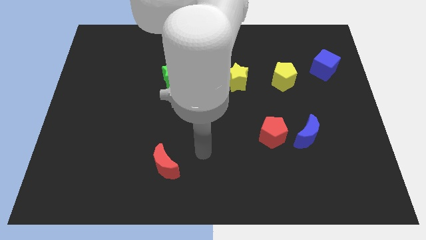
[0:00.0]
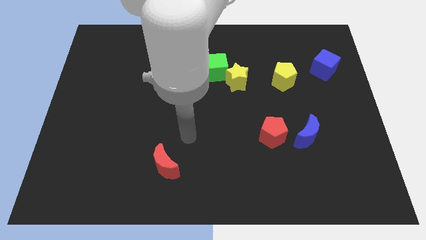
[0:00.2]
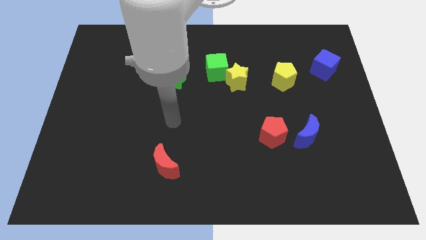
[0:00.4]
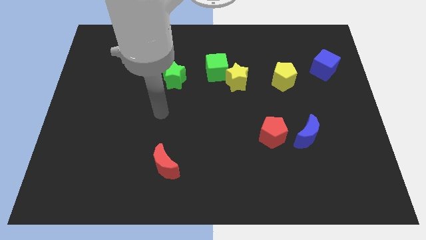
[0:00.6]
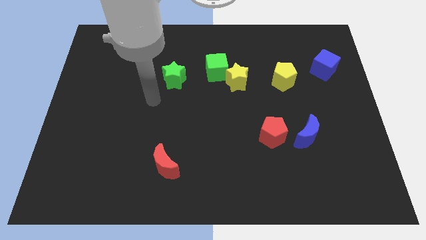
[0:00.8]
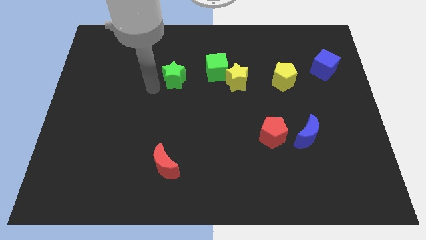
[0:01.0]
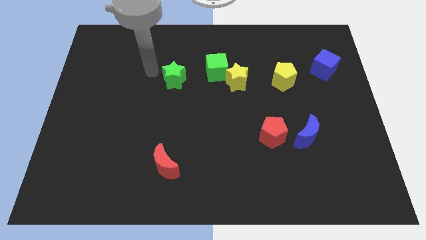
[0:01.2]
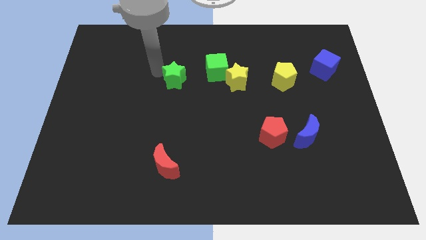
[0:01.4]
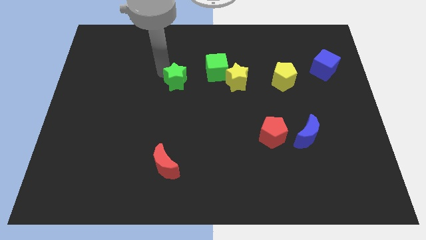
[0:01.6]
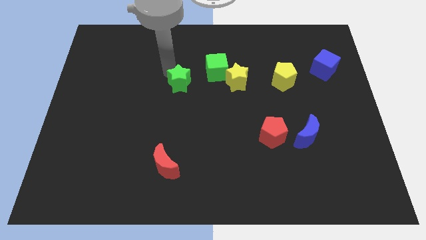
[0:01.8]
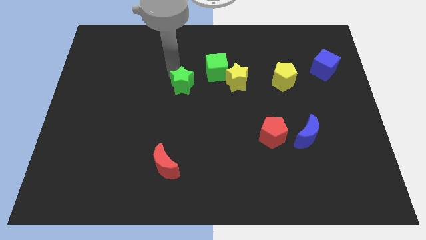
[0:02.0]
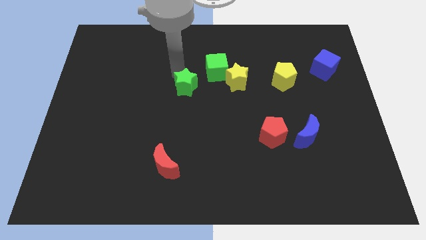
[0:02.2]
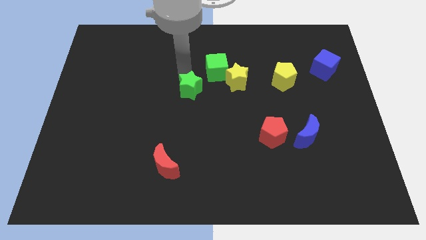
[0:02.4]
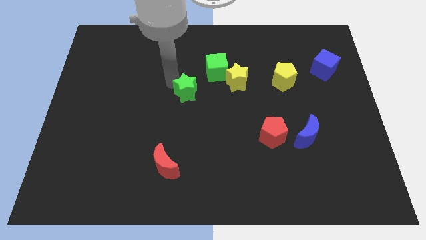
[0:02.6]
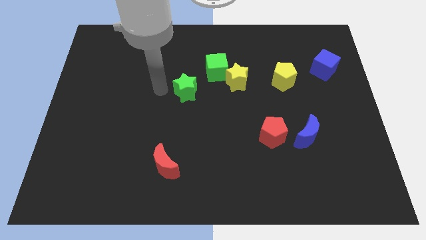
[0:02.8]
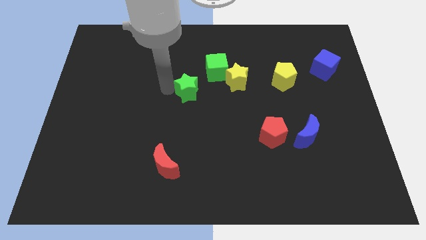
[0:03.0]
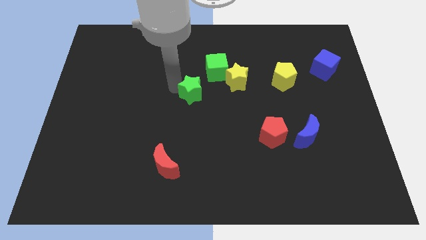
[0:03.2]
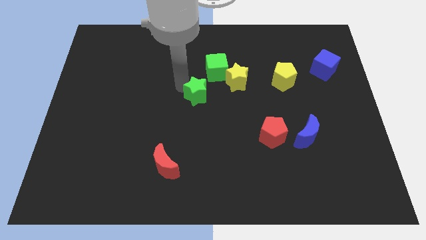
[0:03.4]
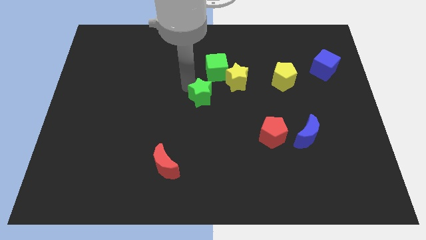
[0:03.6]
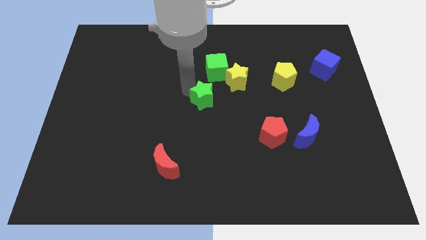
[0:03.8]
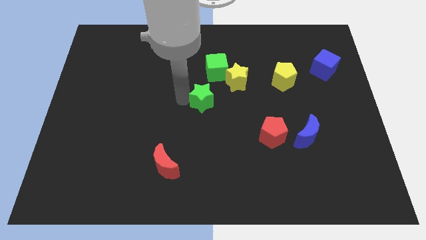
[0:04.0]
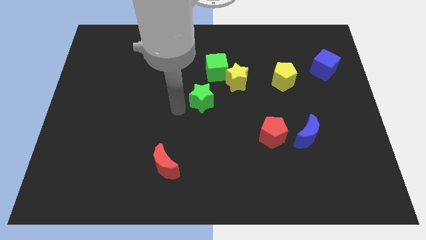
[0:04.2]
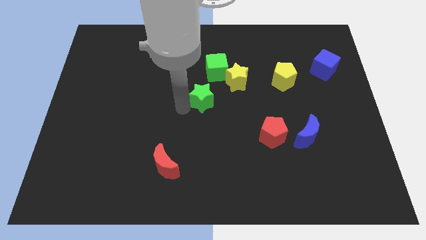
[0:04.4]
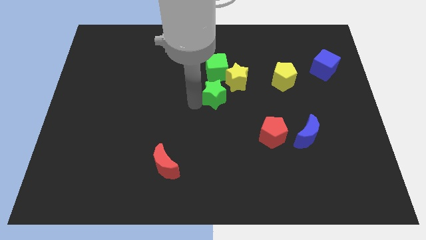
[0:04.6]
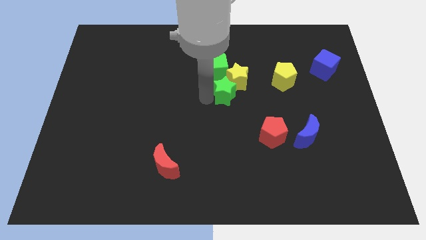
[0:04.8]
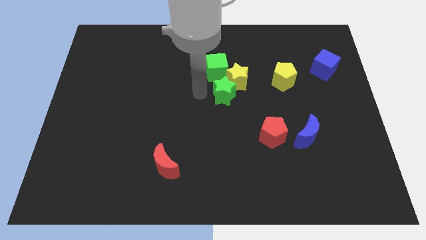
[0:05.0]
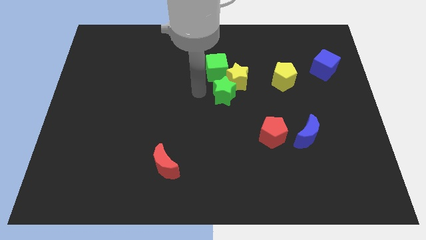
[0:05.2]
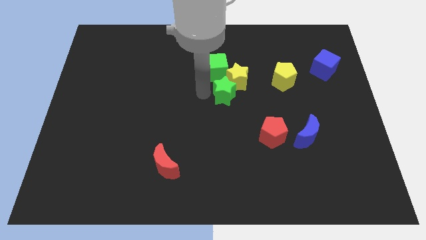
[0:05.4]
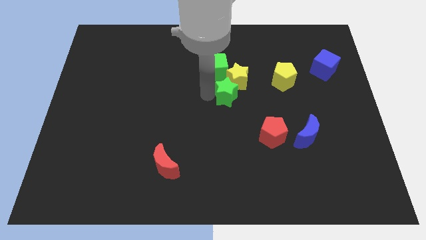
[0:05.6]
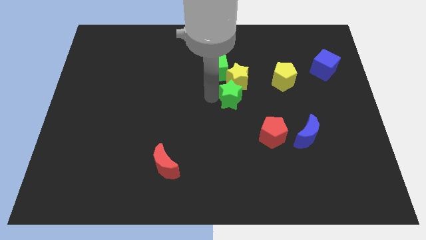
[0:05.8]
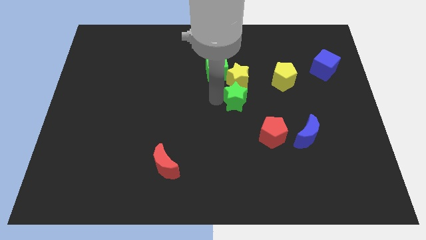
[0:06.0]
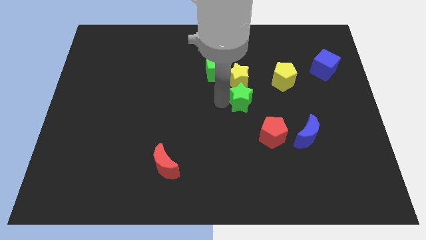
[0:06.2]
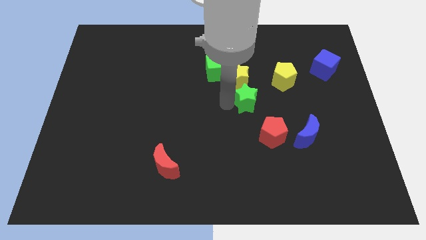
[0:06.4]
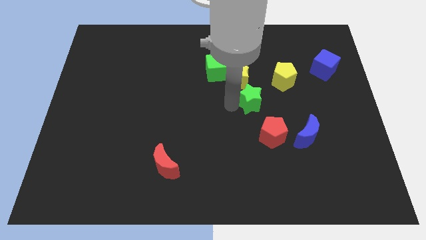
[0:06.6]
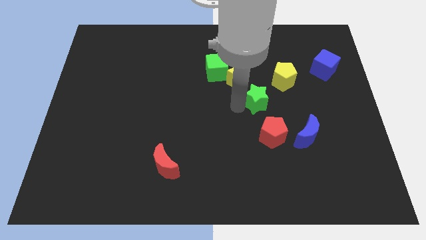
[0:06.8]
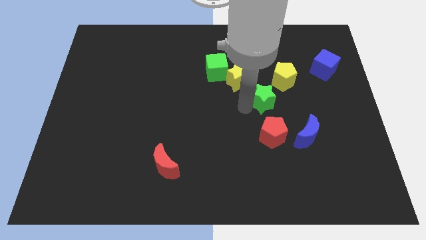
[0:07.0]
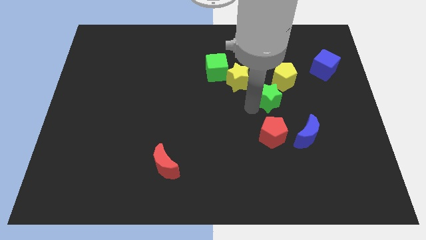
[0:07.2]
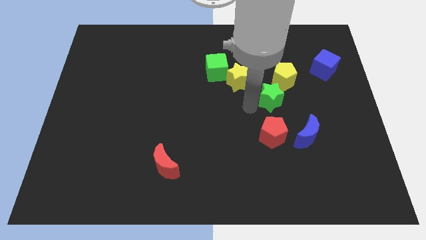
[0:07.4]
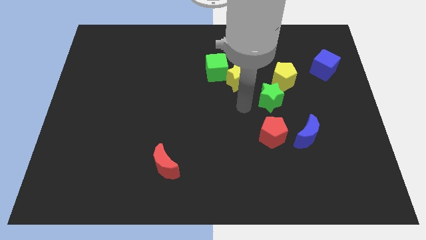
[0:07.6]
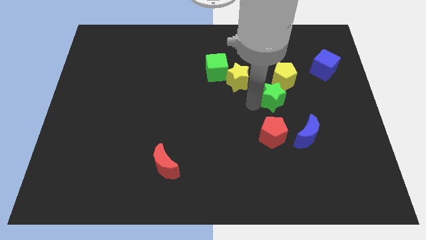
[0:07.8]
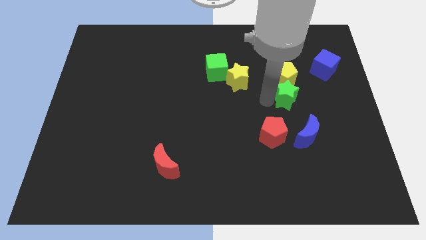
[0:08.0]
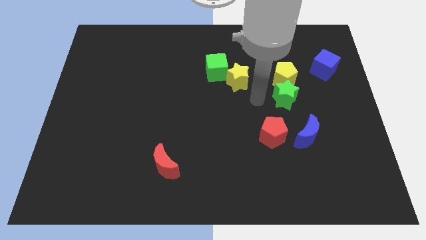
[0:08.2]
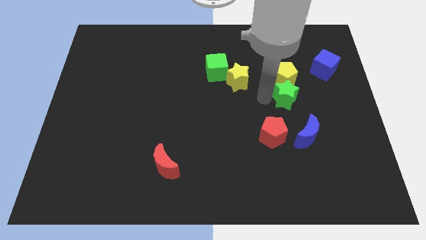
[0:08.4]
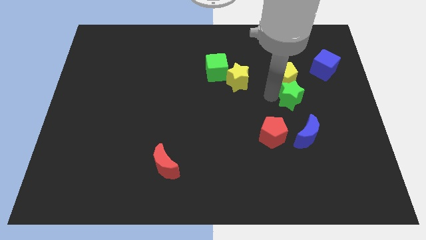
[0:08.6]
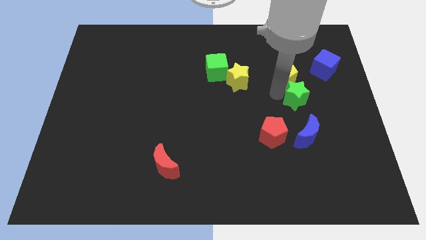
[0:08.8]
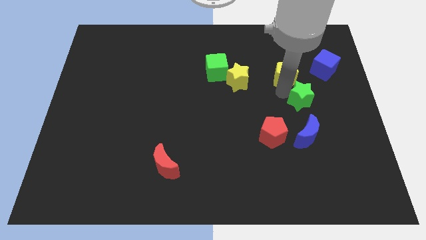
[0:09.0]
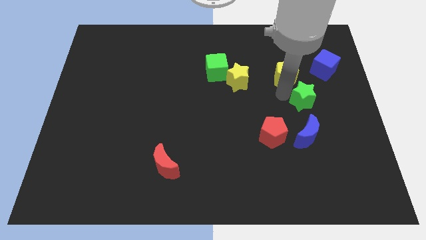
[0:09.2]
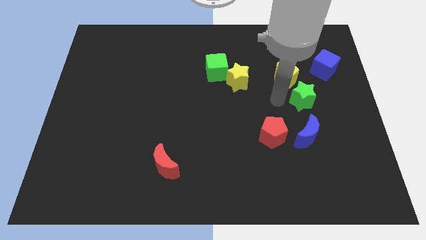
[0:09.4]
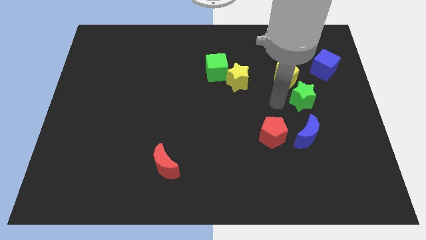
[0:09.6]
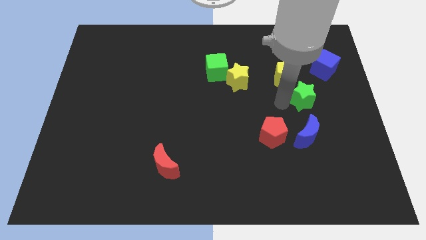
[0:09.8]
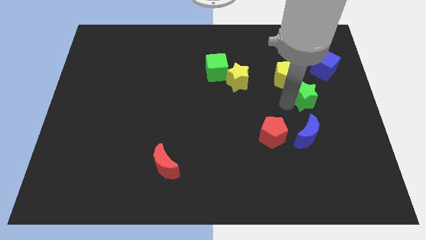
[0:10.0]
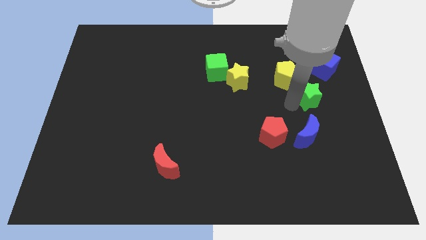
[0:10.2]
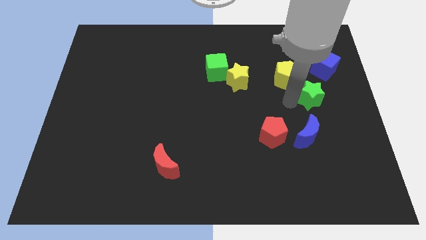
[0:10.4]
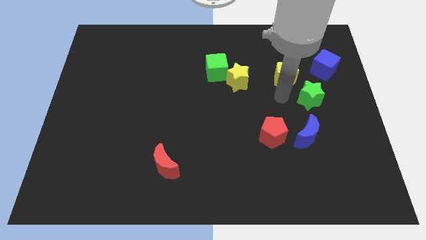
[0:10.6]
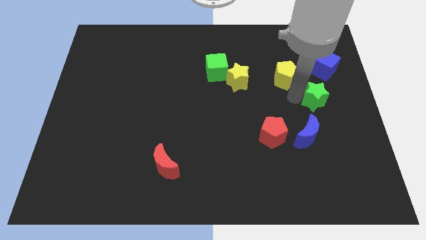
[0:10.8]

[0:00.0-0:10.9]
slide the green star below the blue cube

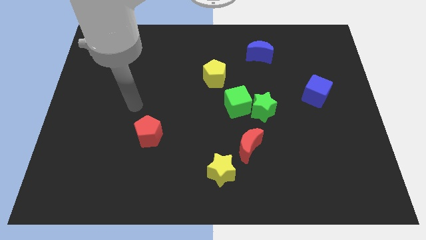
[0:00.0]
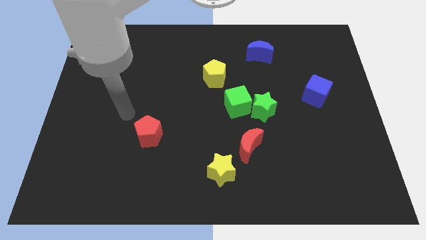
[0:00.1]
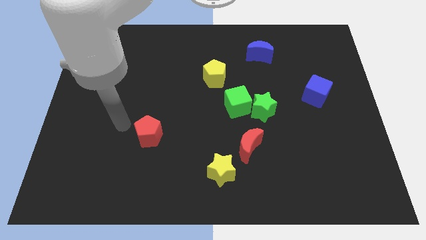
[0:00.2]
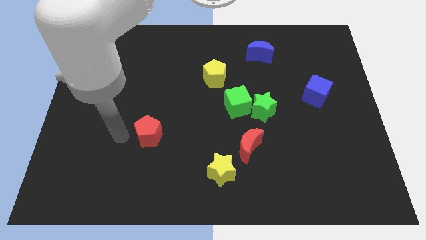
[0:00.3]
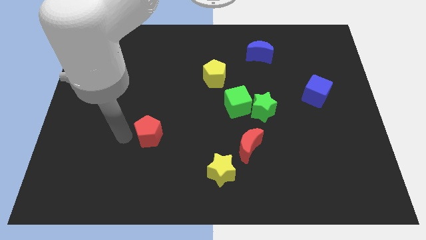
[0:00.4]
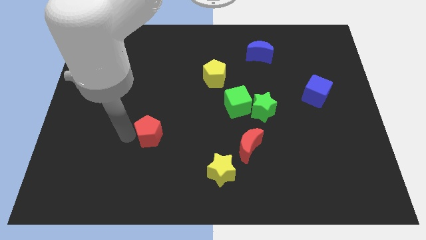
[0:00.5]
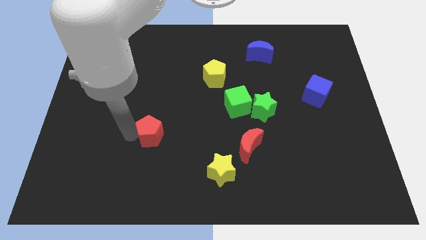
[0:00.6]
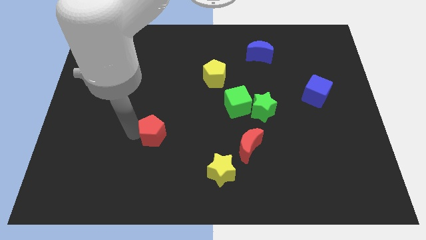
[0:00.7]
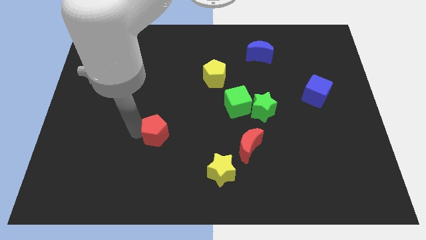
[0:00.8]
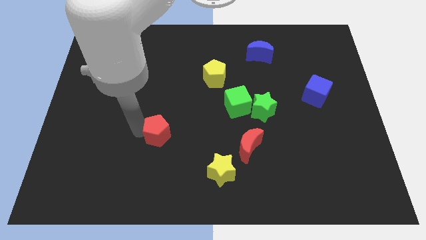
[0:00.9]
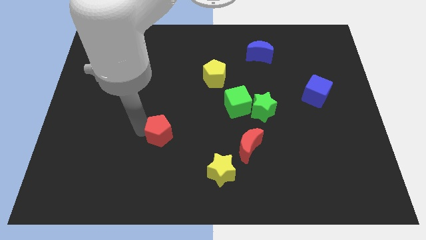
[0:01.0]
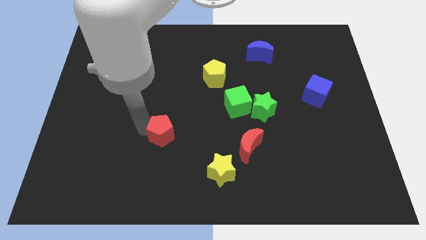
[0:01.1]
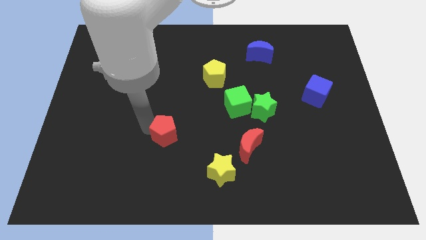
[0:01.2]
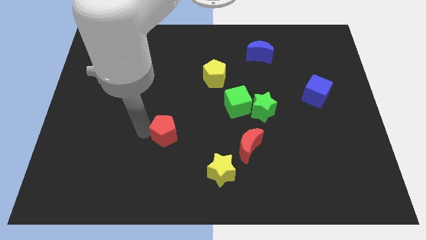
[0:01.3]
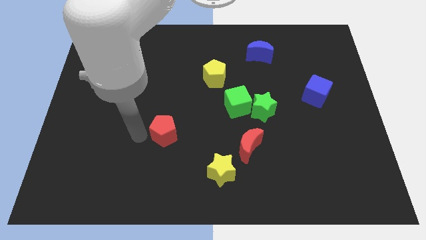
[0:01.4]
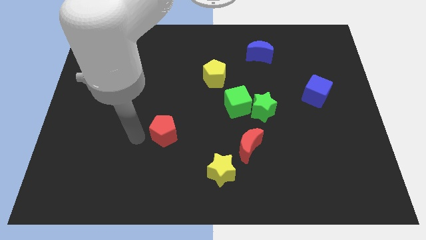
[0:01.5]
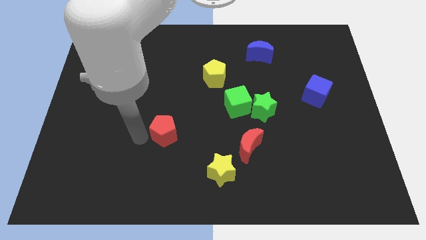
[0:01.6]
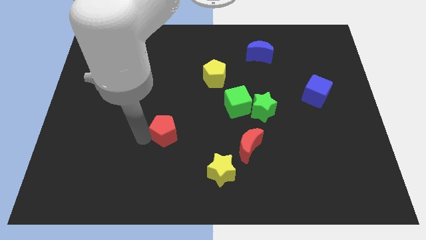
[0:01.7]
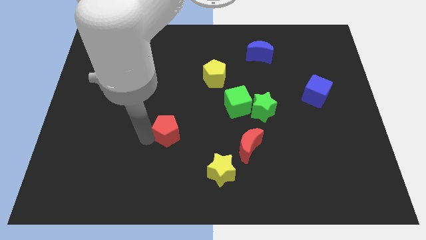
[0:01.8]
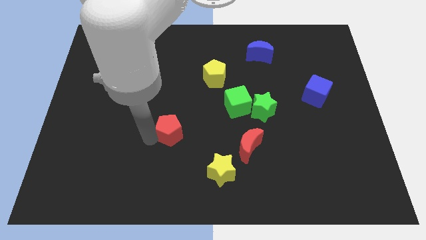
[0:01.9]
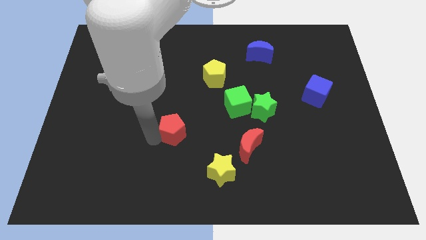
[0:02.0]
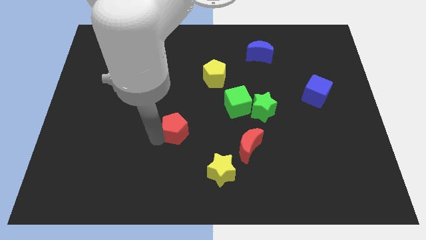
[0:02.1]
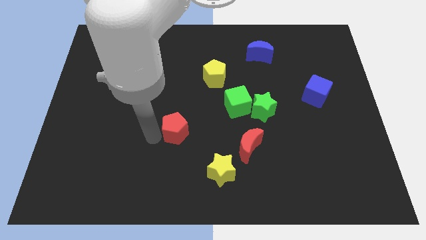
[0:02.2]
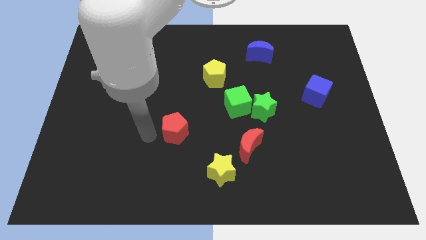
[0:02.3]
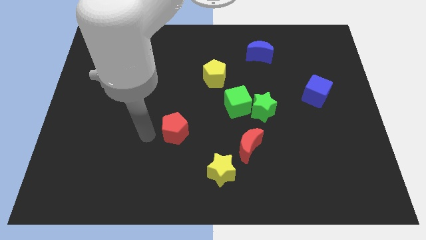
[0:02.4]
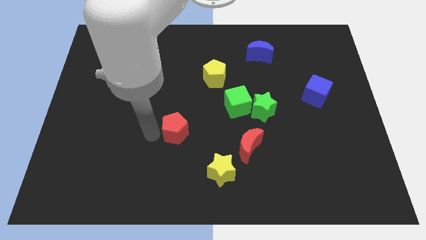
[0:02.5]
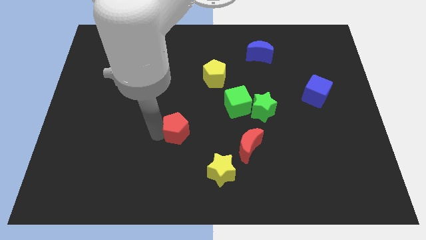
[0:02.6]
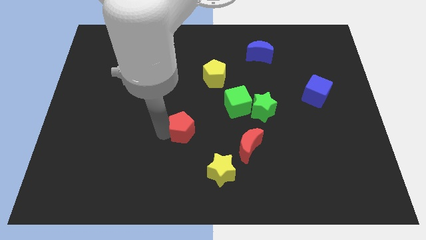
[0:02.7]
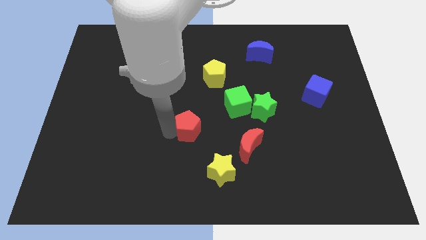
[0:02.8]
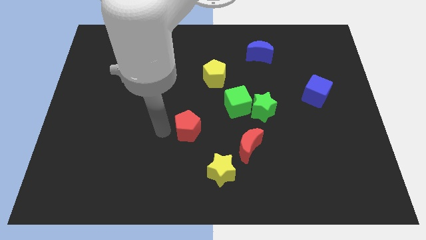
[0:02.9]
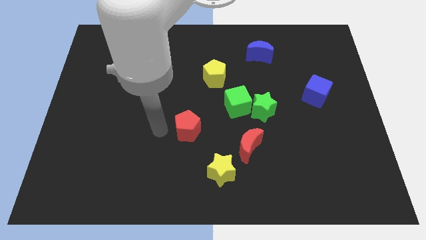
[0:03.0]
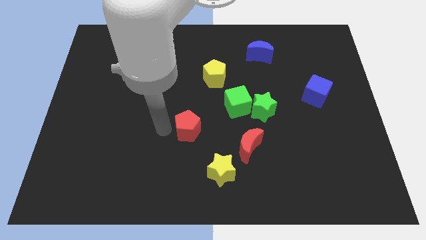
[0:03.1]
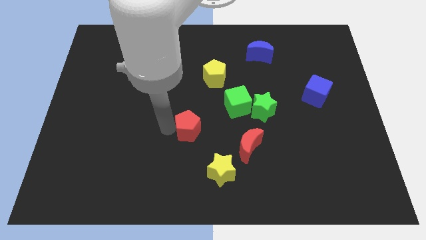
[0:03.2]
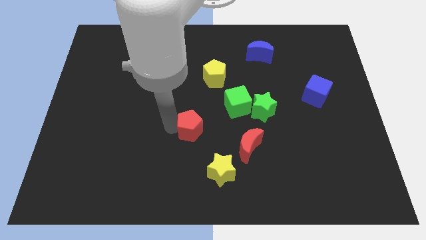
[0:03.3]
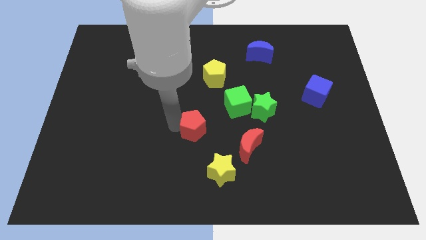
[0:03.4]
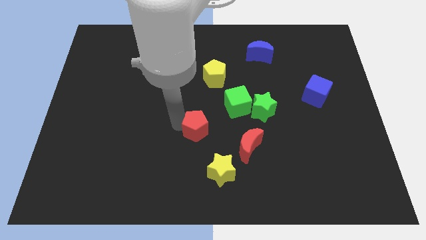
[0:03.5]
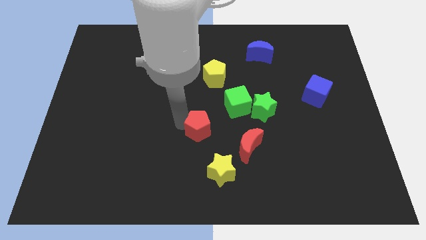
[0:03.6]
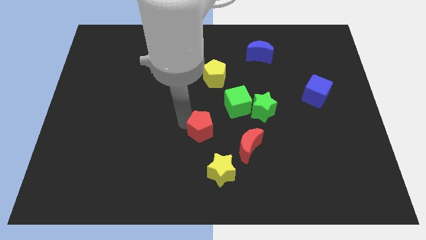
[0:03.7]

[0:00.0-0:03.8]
push the red pentagon to the top left of the red moon
